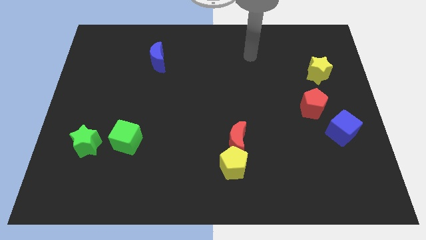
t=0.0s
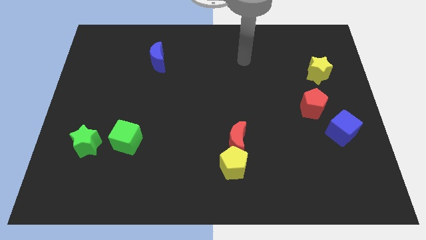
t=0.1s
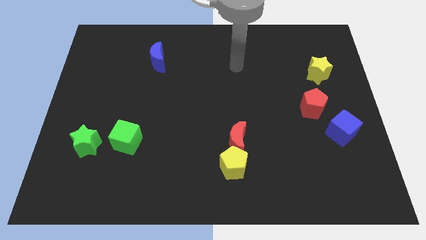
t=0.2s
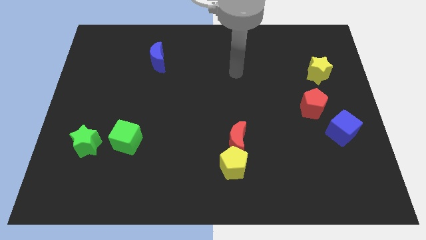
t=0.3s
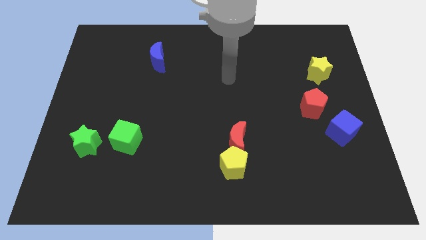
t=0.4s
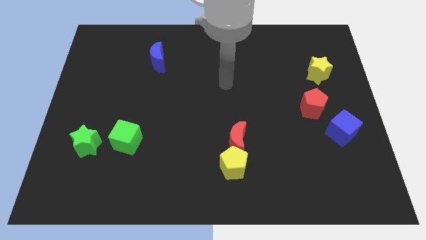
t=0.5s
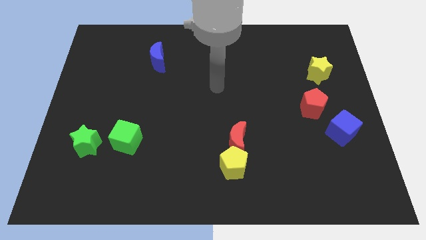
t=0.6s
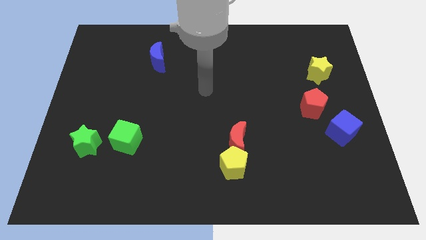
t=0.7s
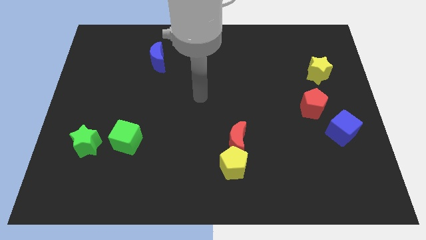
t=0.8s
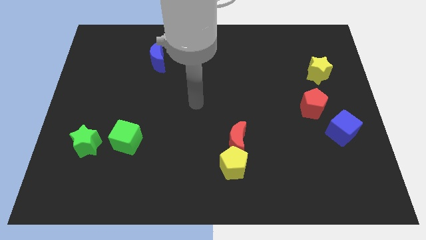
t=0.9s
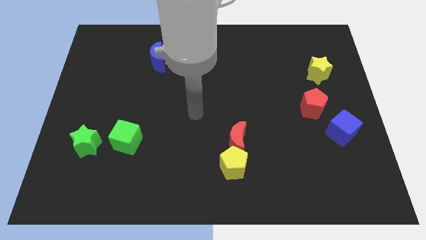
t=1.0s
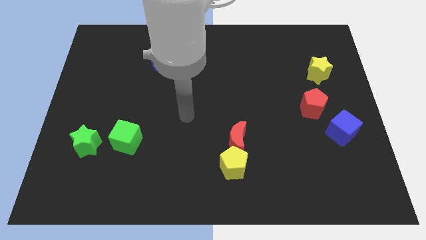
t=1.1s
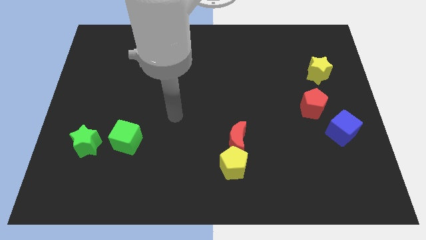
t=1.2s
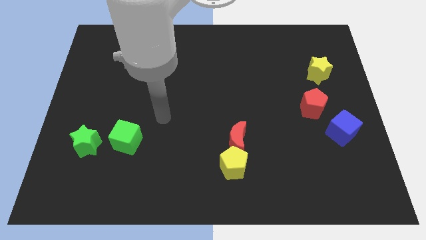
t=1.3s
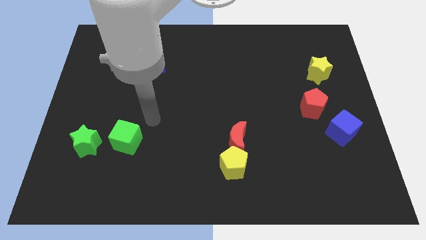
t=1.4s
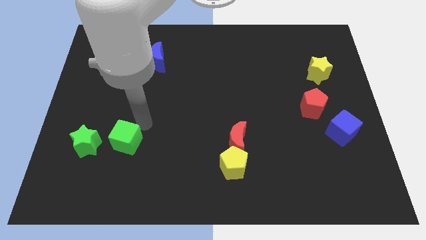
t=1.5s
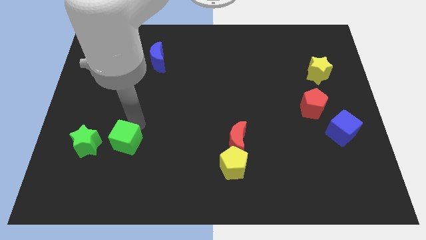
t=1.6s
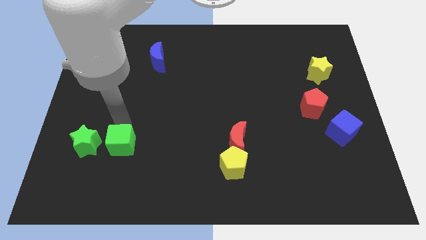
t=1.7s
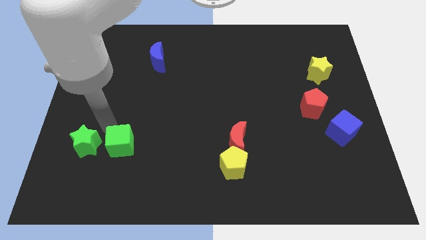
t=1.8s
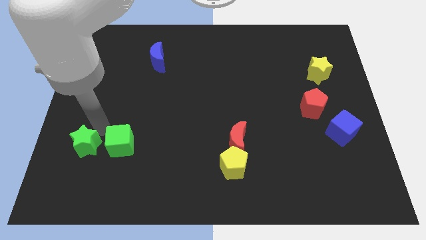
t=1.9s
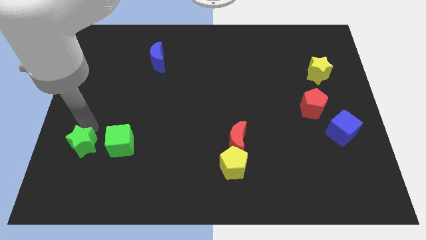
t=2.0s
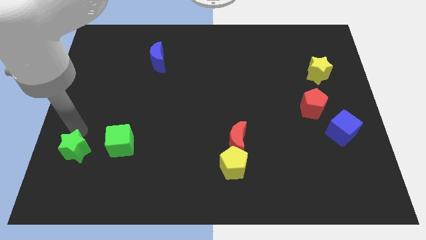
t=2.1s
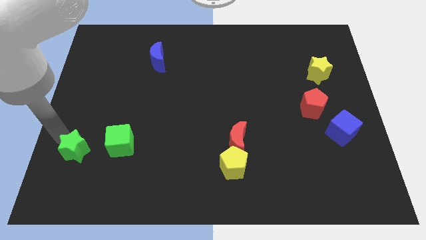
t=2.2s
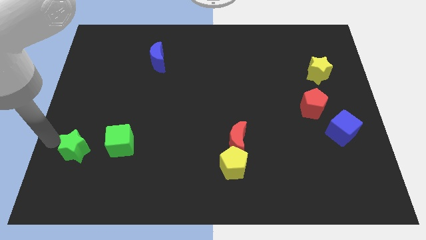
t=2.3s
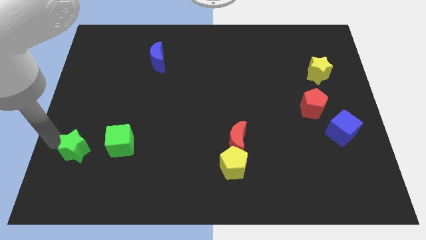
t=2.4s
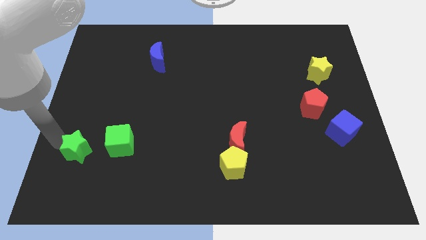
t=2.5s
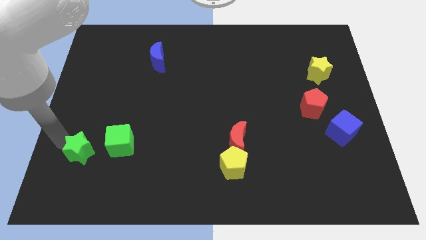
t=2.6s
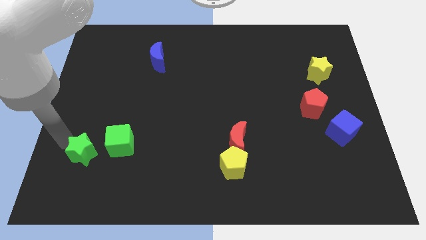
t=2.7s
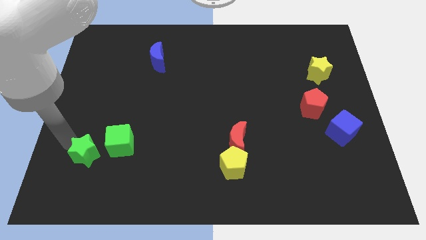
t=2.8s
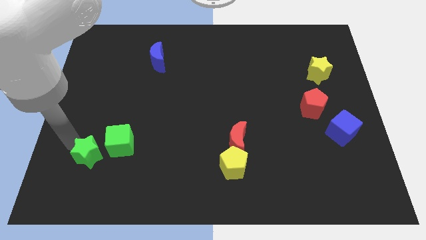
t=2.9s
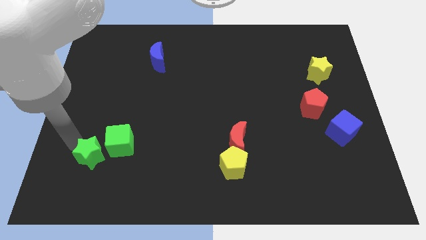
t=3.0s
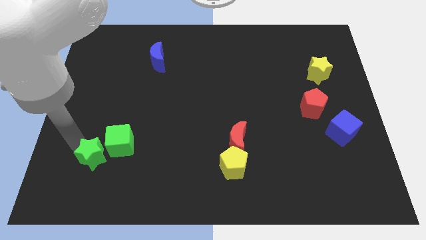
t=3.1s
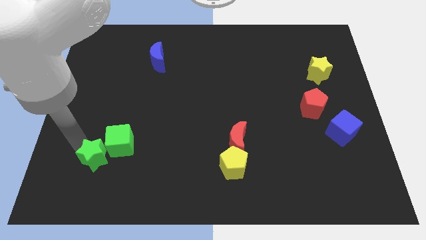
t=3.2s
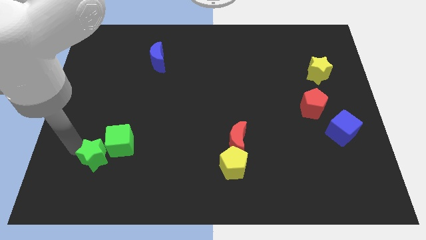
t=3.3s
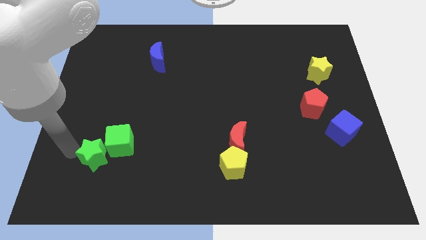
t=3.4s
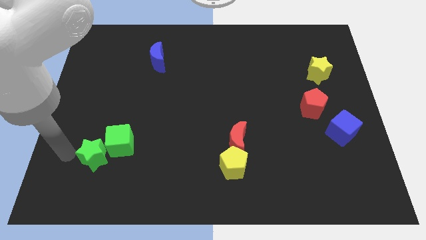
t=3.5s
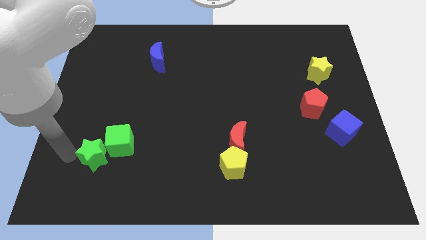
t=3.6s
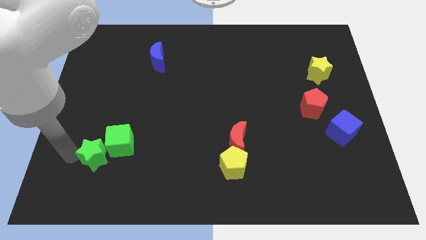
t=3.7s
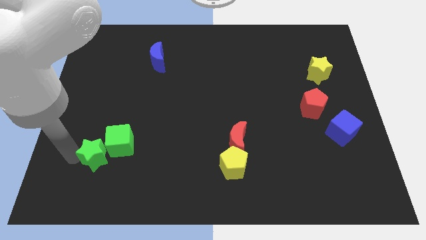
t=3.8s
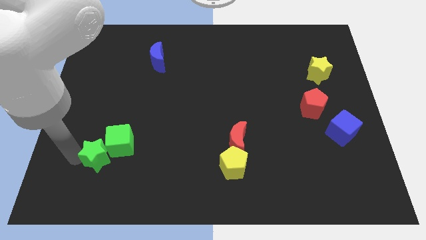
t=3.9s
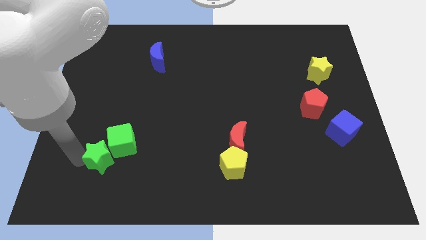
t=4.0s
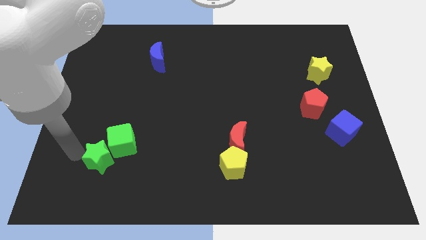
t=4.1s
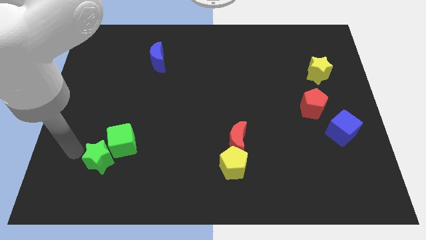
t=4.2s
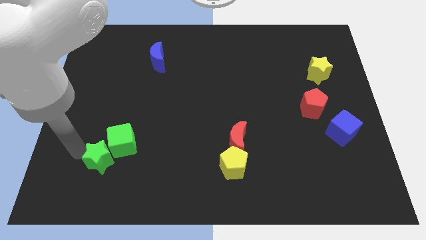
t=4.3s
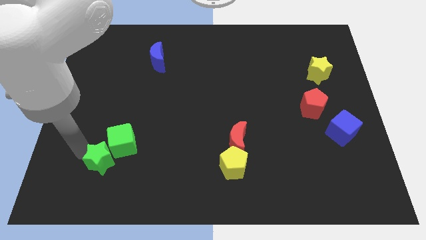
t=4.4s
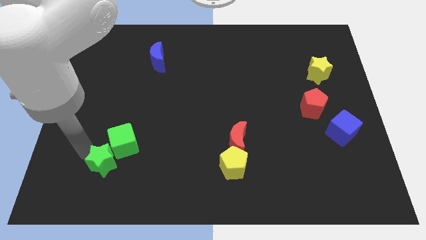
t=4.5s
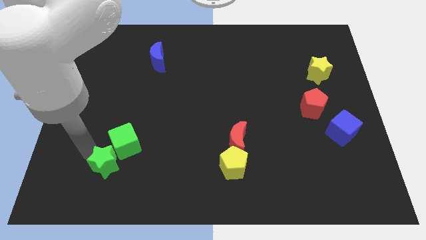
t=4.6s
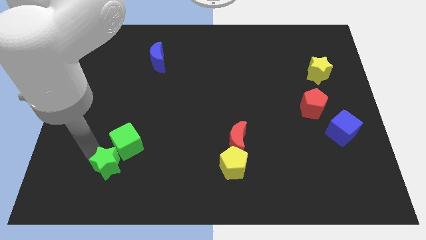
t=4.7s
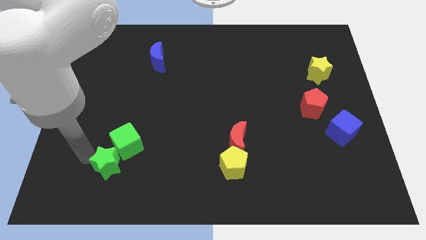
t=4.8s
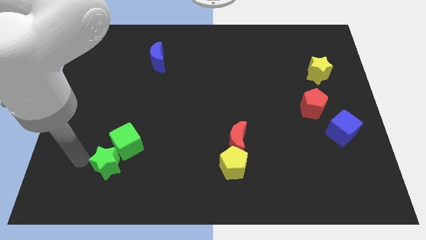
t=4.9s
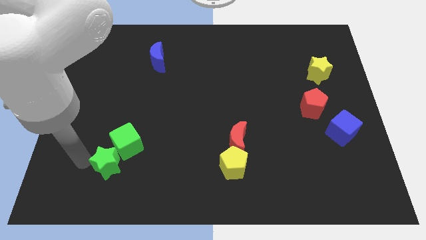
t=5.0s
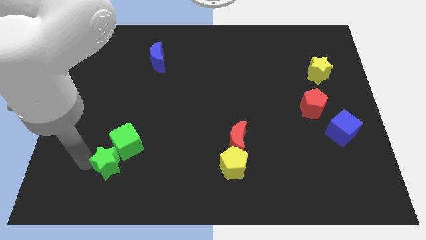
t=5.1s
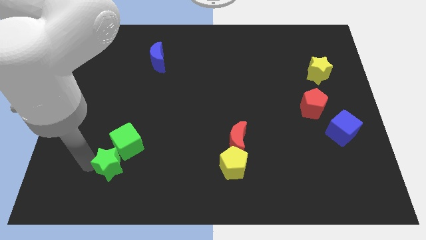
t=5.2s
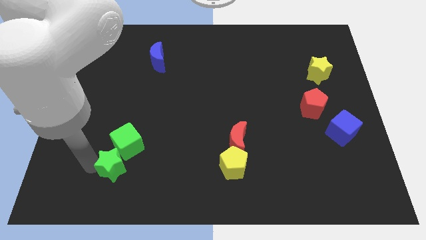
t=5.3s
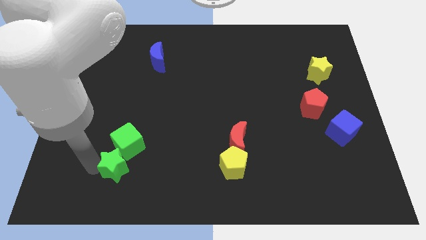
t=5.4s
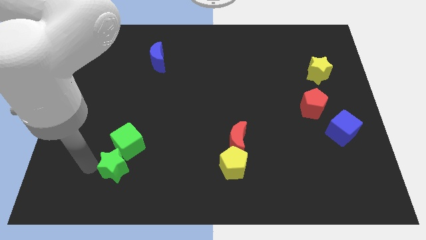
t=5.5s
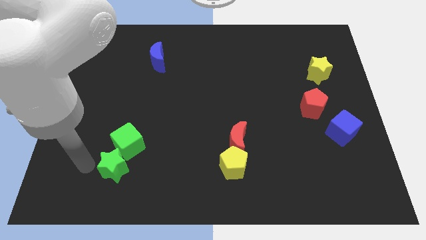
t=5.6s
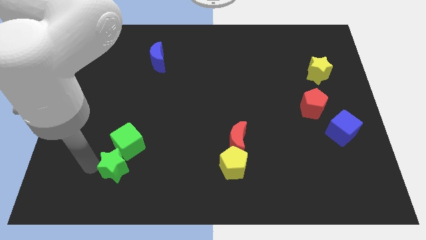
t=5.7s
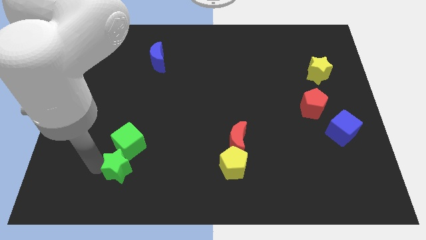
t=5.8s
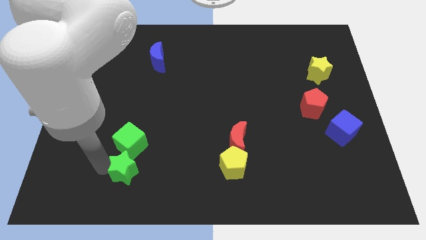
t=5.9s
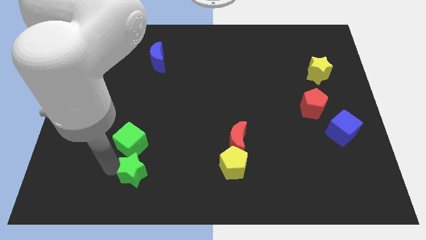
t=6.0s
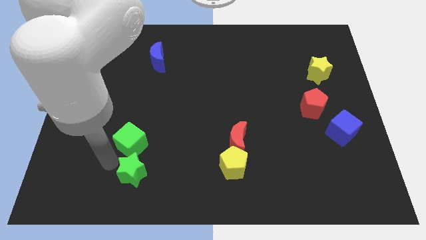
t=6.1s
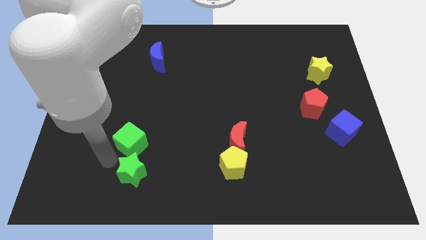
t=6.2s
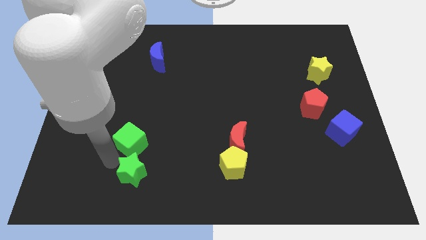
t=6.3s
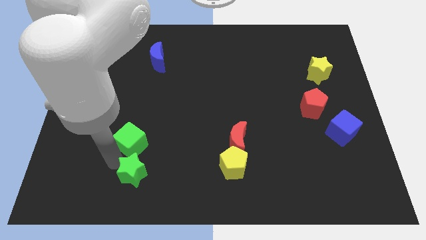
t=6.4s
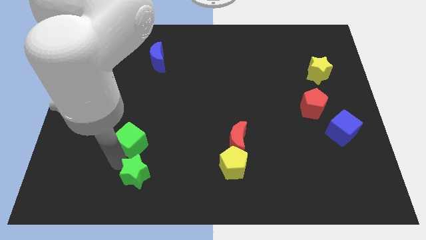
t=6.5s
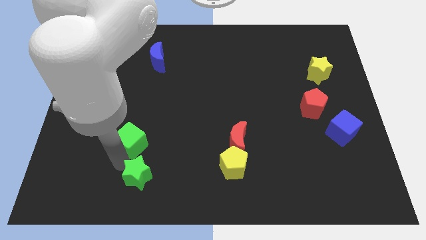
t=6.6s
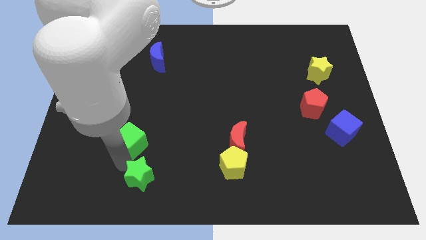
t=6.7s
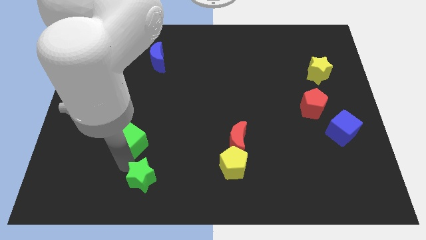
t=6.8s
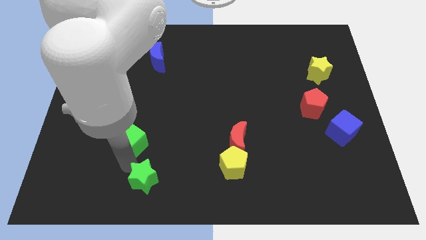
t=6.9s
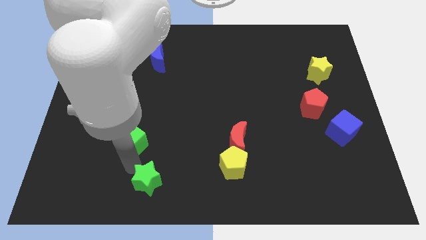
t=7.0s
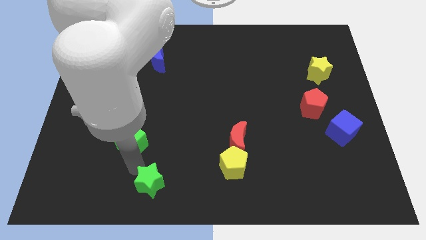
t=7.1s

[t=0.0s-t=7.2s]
put the green star to the bottom
